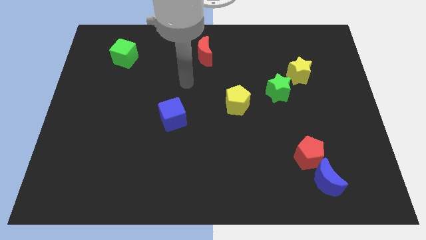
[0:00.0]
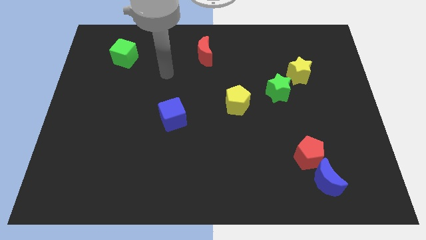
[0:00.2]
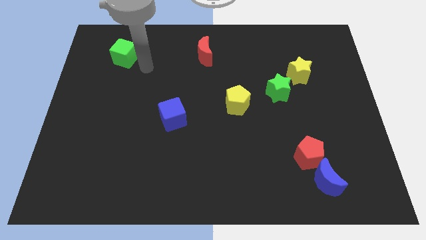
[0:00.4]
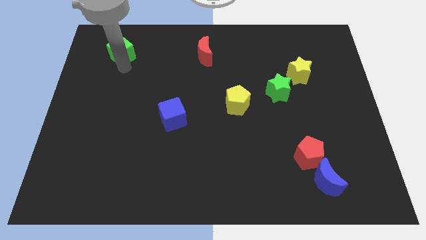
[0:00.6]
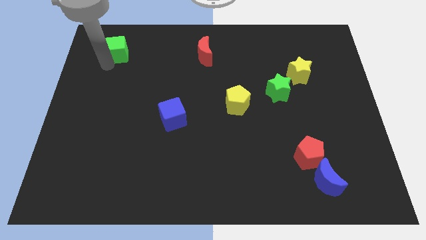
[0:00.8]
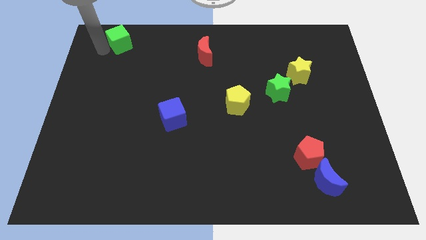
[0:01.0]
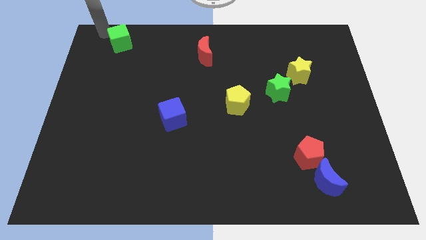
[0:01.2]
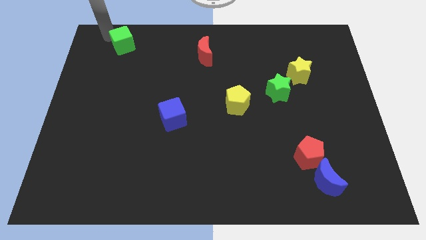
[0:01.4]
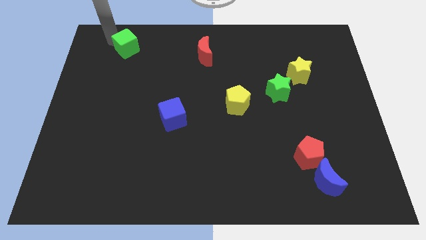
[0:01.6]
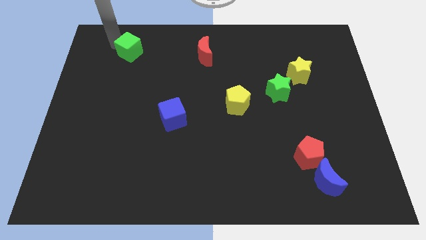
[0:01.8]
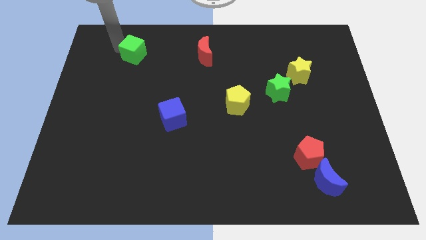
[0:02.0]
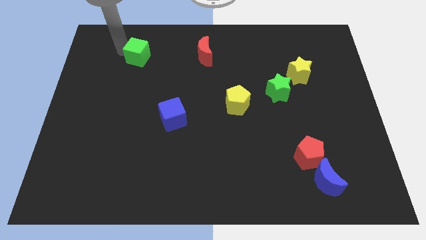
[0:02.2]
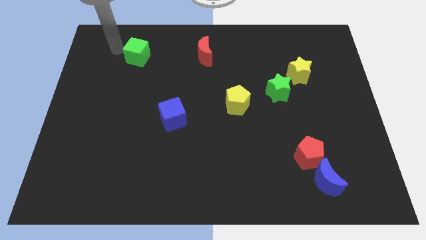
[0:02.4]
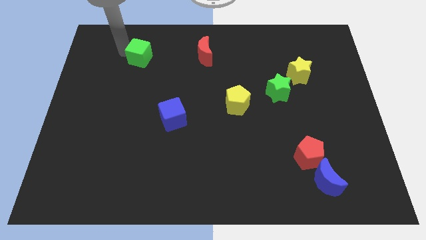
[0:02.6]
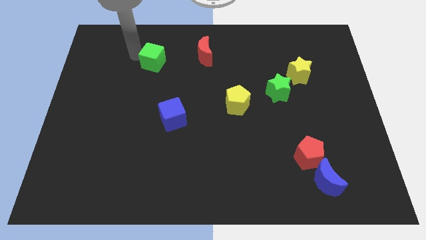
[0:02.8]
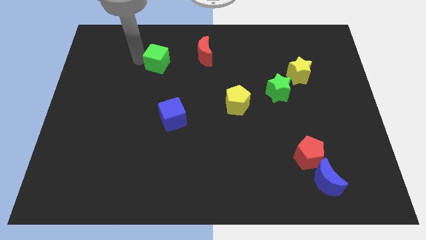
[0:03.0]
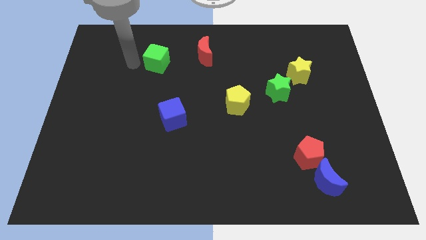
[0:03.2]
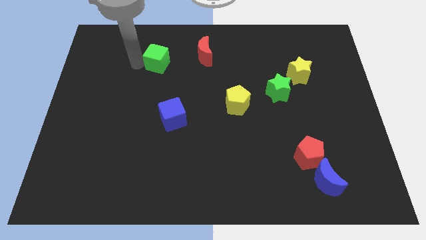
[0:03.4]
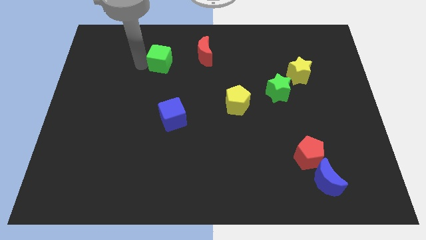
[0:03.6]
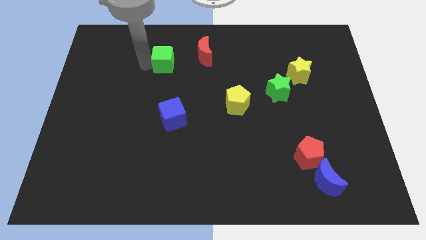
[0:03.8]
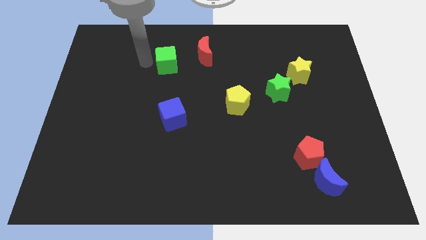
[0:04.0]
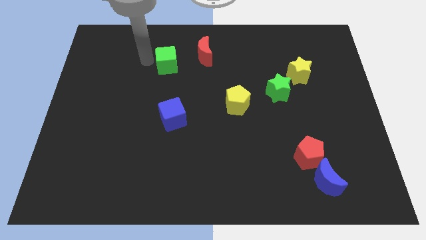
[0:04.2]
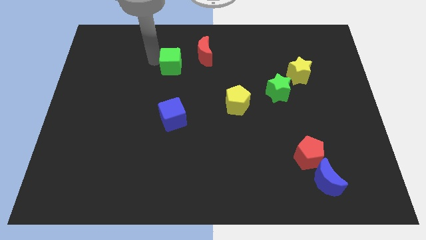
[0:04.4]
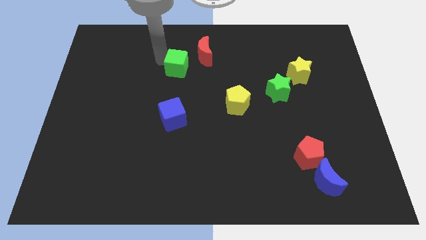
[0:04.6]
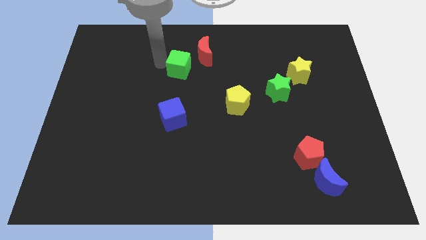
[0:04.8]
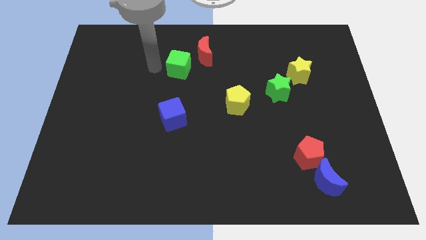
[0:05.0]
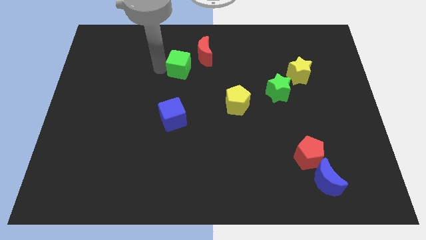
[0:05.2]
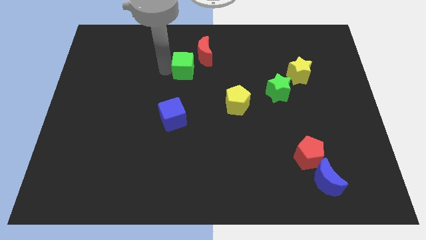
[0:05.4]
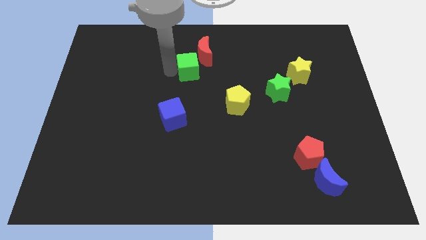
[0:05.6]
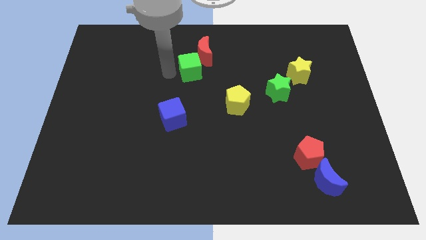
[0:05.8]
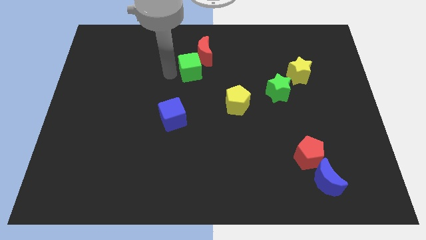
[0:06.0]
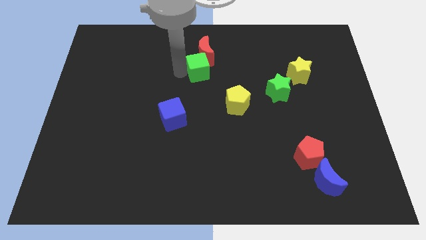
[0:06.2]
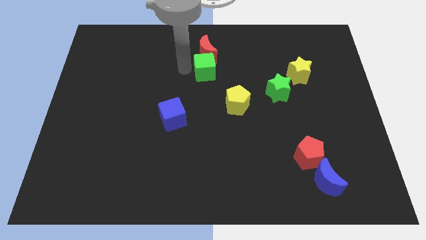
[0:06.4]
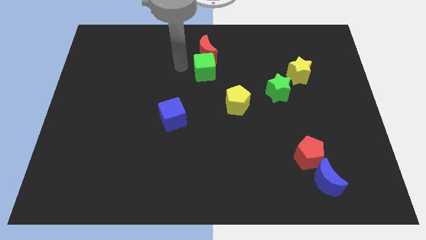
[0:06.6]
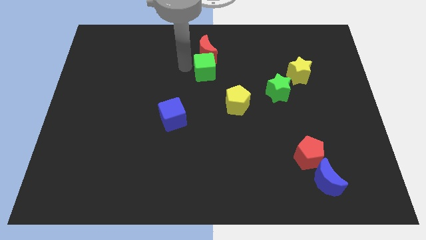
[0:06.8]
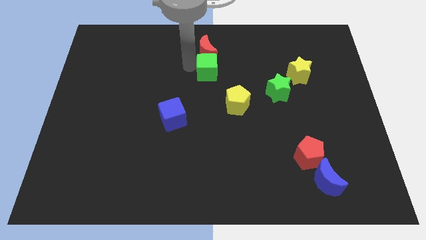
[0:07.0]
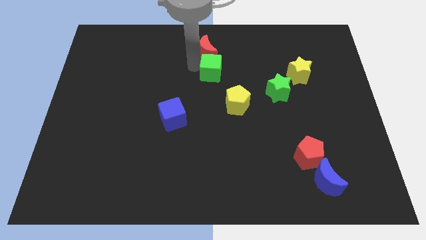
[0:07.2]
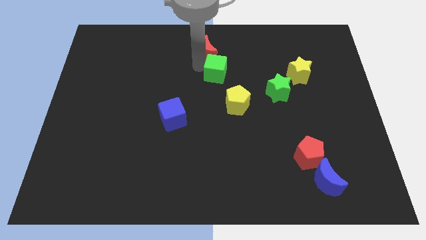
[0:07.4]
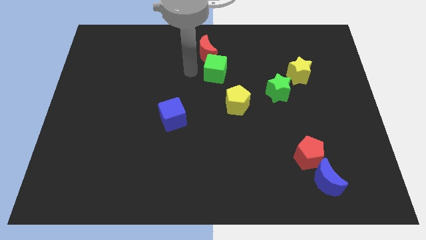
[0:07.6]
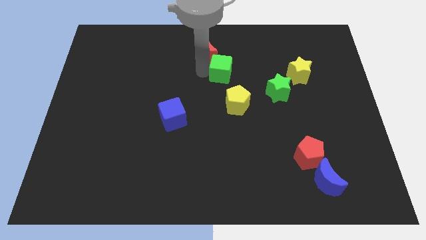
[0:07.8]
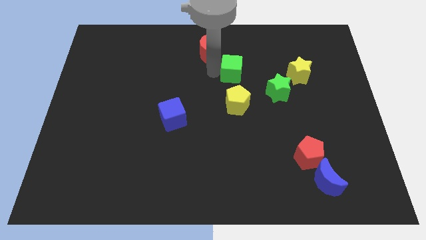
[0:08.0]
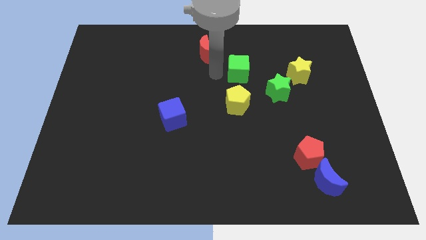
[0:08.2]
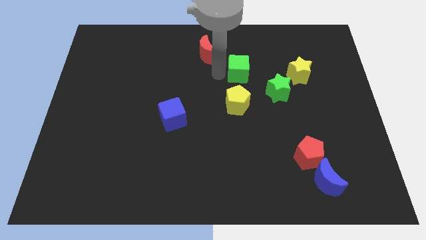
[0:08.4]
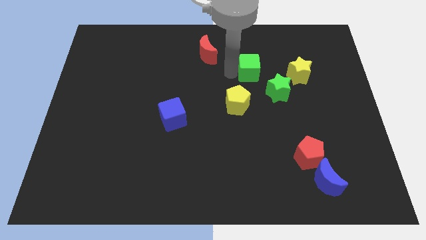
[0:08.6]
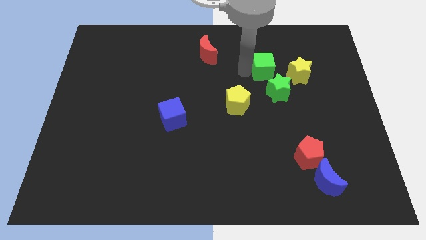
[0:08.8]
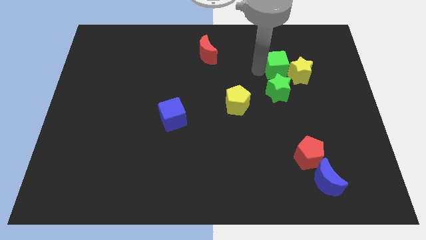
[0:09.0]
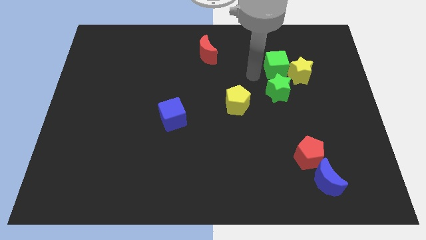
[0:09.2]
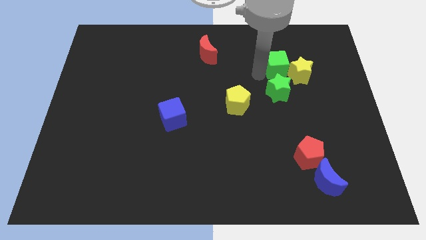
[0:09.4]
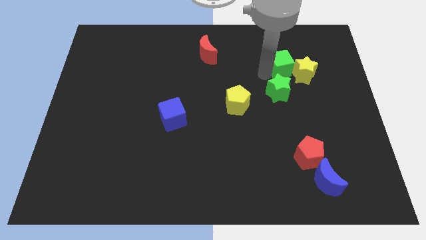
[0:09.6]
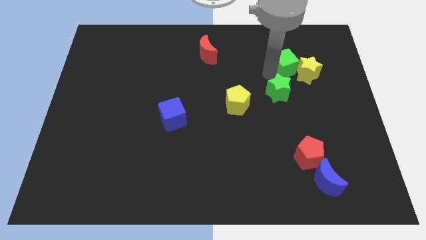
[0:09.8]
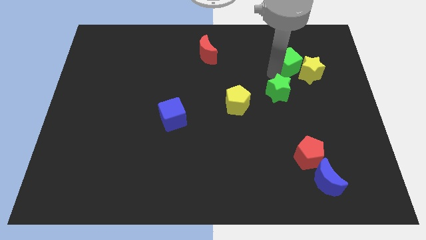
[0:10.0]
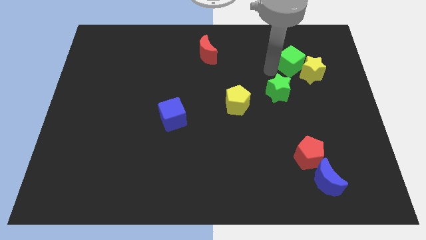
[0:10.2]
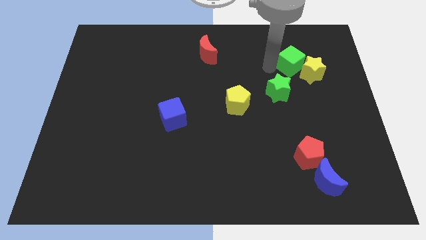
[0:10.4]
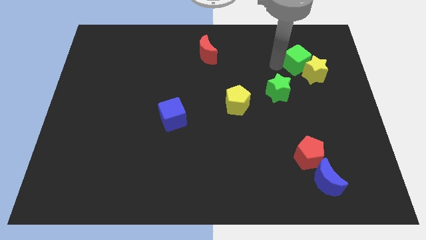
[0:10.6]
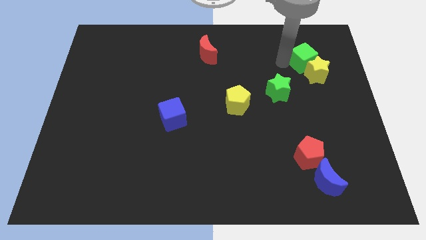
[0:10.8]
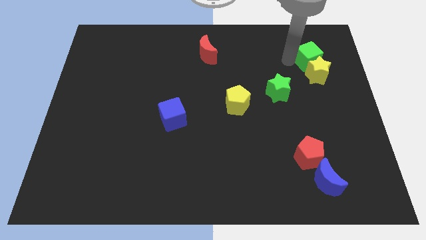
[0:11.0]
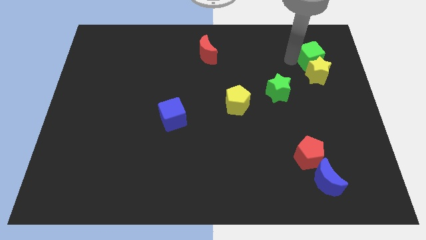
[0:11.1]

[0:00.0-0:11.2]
push the green cube to the top right side of the yellow star
